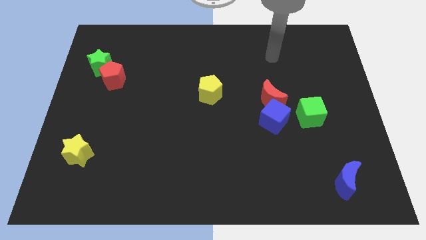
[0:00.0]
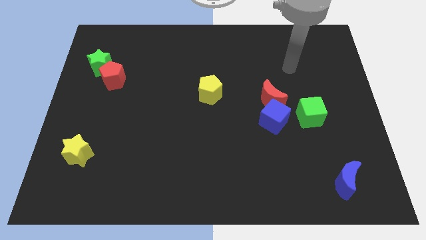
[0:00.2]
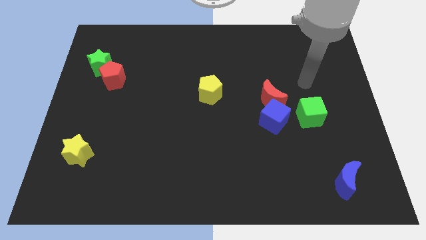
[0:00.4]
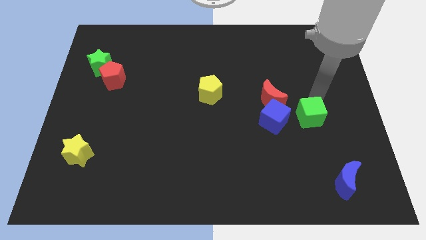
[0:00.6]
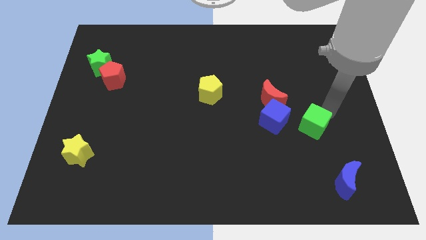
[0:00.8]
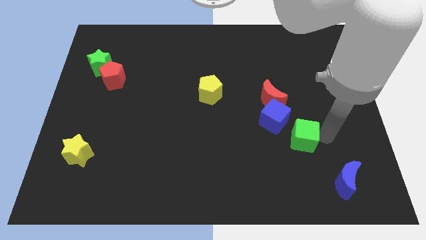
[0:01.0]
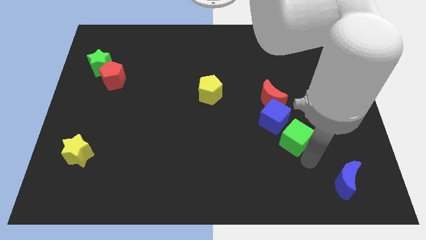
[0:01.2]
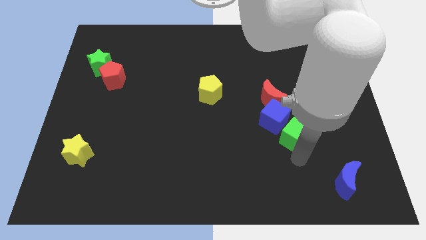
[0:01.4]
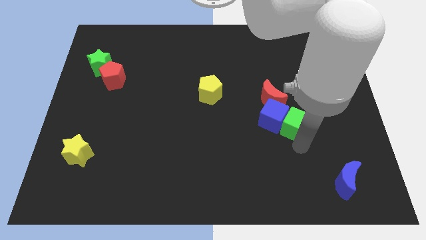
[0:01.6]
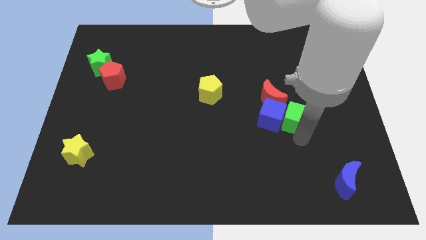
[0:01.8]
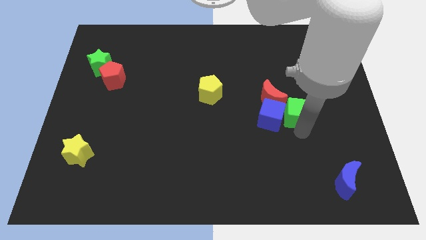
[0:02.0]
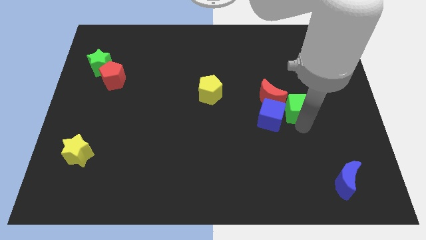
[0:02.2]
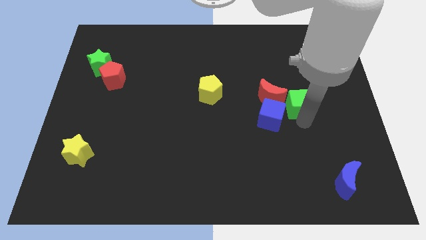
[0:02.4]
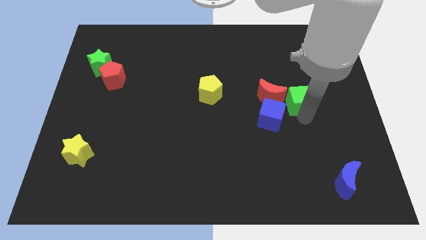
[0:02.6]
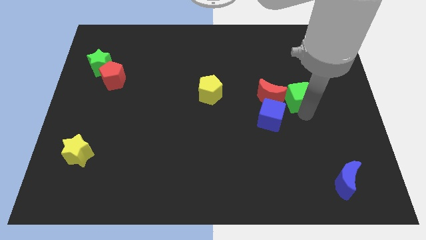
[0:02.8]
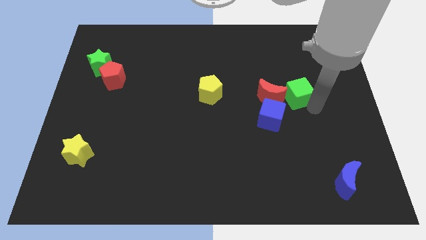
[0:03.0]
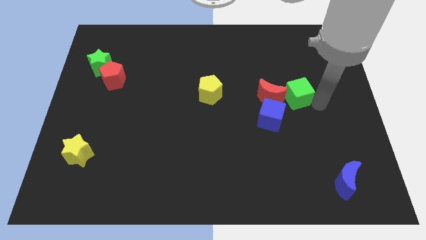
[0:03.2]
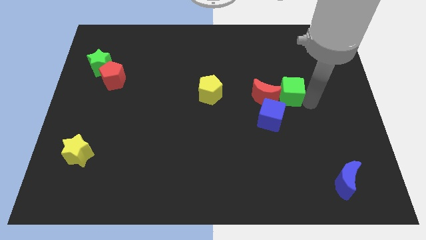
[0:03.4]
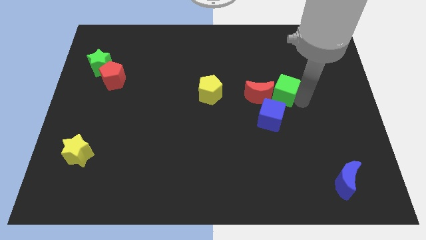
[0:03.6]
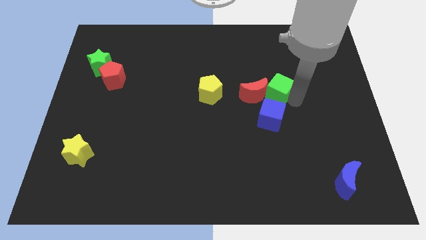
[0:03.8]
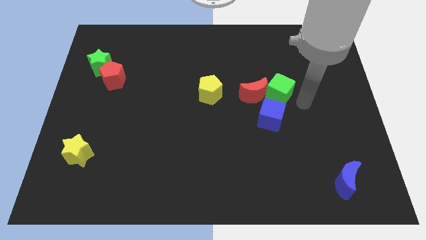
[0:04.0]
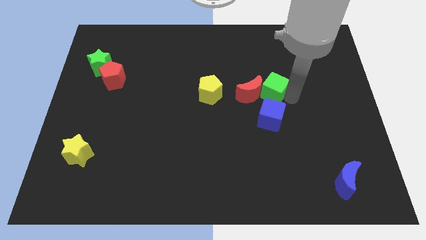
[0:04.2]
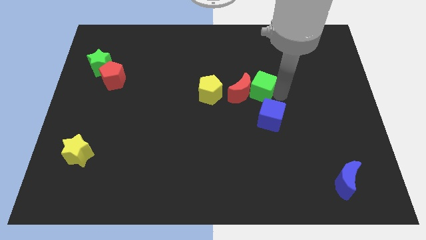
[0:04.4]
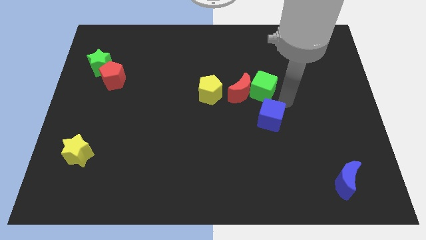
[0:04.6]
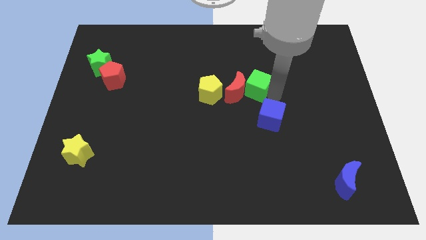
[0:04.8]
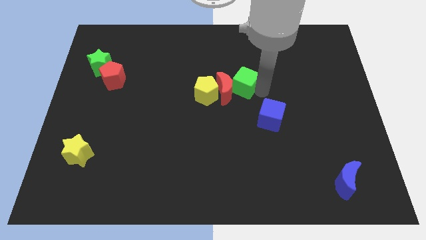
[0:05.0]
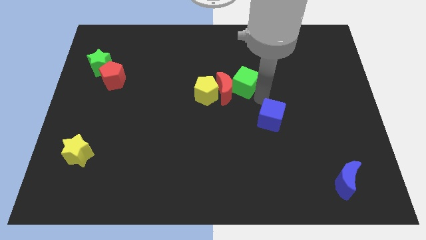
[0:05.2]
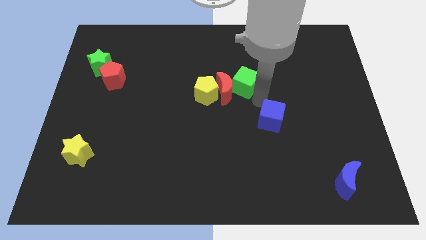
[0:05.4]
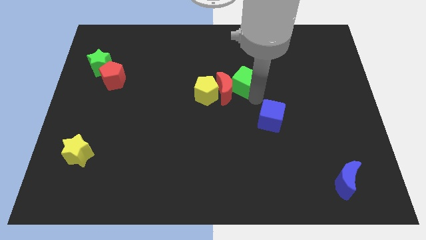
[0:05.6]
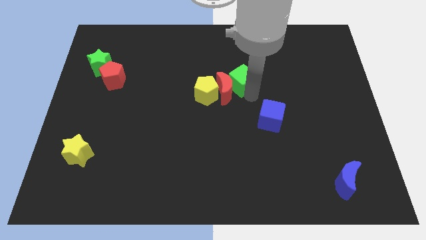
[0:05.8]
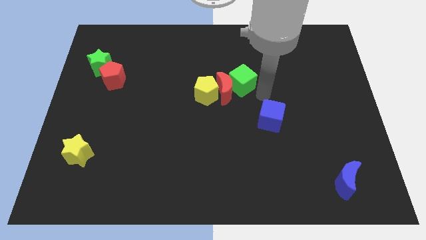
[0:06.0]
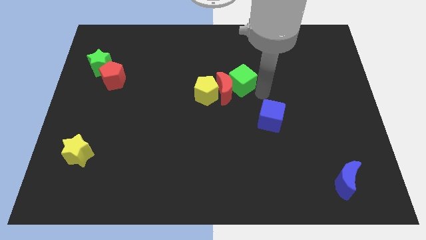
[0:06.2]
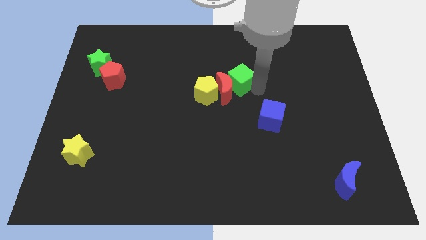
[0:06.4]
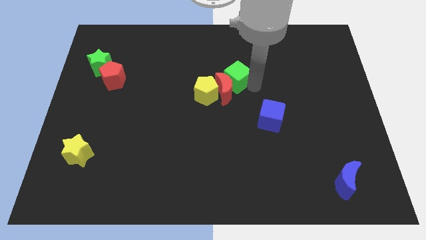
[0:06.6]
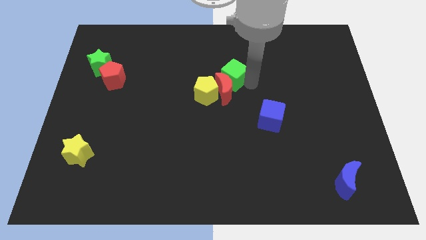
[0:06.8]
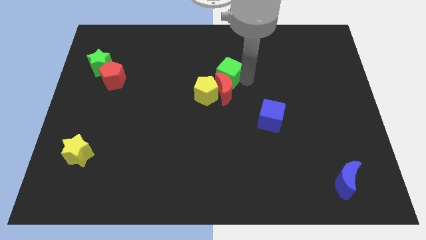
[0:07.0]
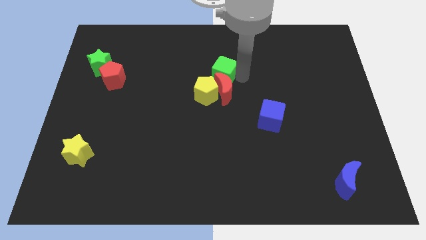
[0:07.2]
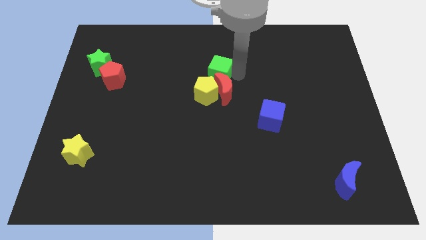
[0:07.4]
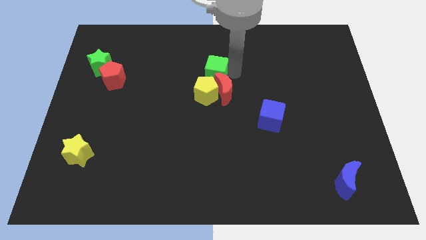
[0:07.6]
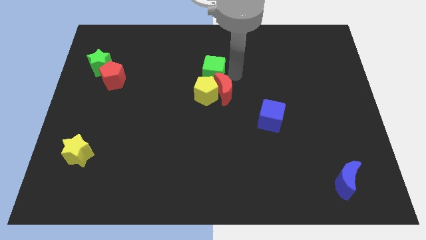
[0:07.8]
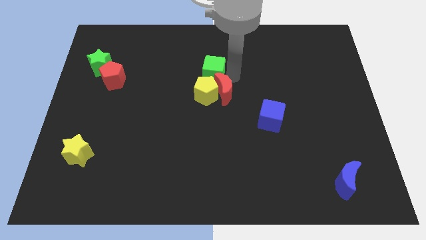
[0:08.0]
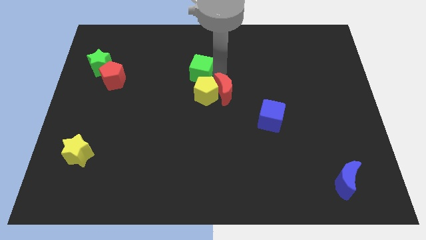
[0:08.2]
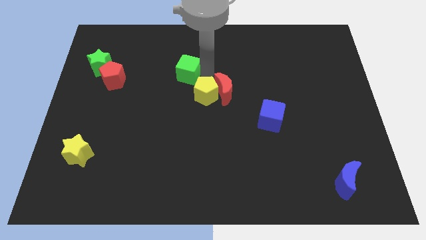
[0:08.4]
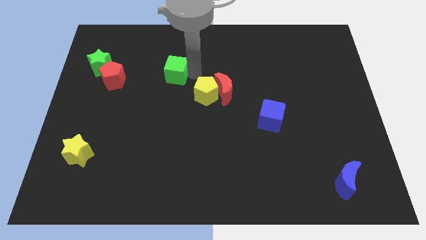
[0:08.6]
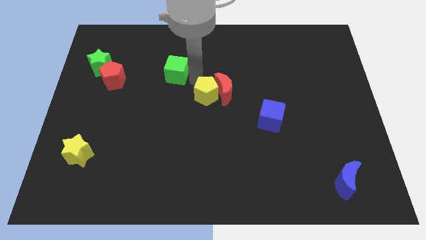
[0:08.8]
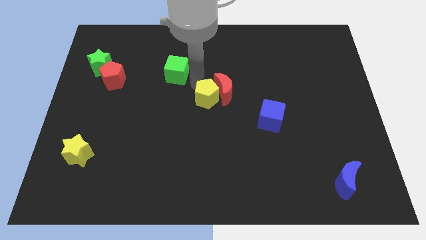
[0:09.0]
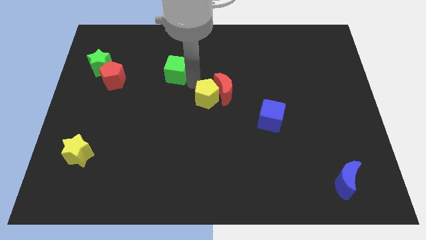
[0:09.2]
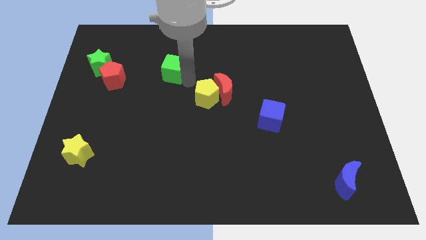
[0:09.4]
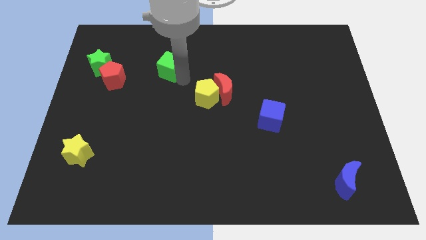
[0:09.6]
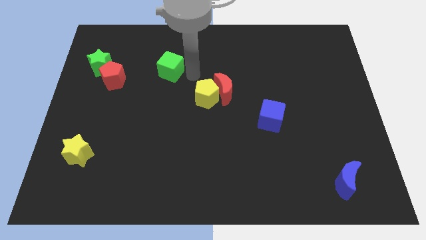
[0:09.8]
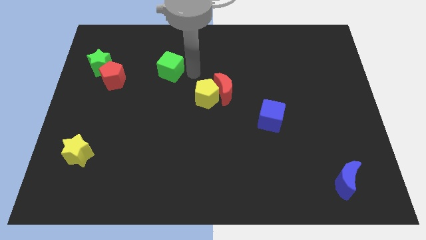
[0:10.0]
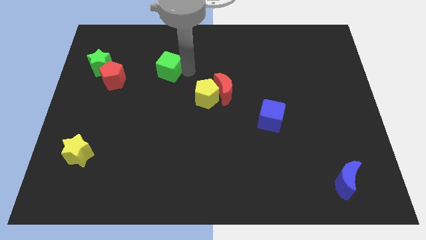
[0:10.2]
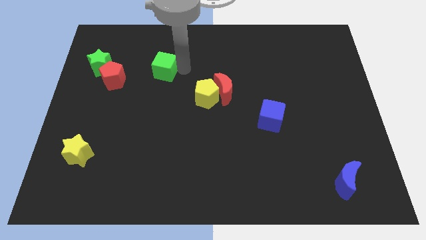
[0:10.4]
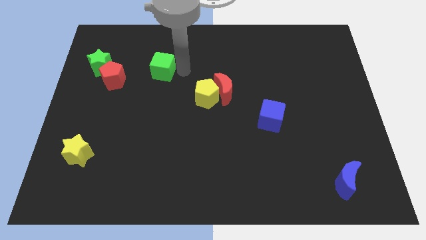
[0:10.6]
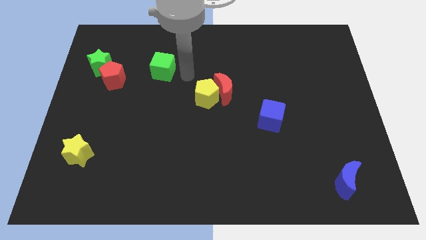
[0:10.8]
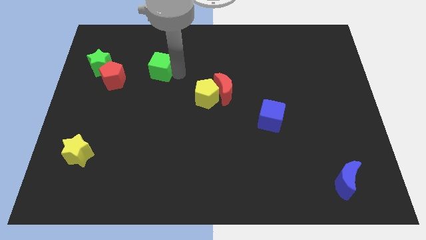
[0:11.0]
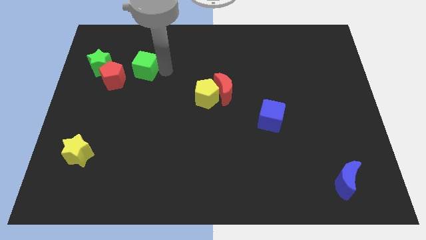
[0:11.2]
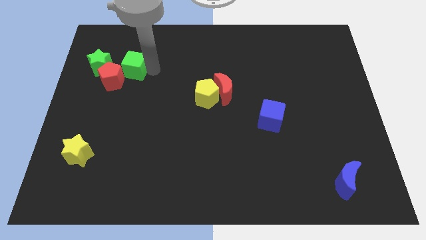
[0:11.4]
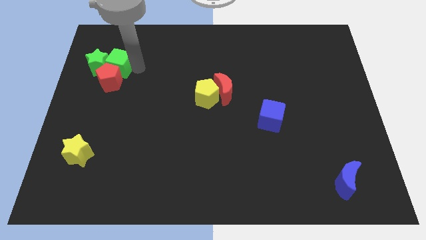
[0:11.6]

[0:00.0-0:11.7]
move the green cube close to the green star

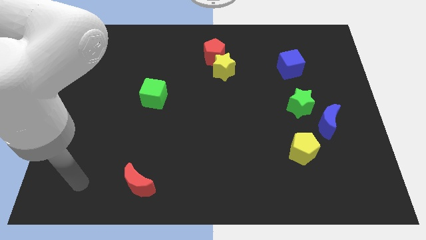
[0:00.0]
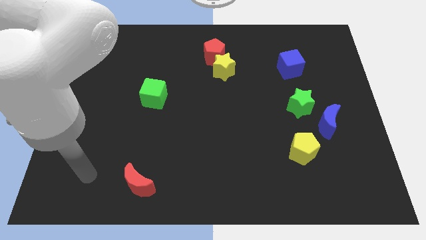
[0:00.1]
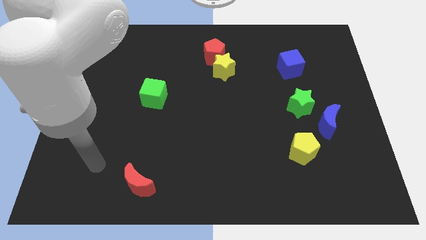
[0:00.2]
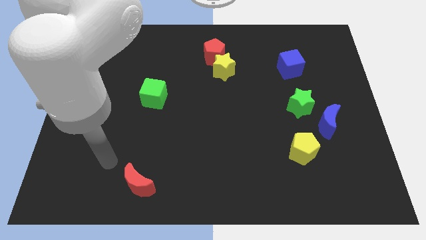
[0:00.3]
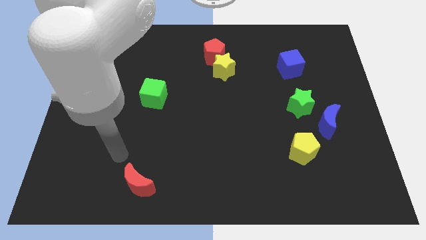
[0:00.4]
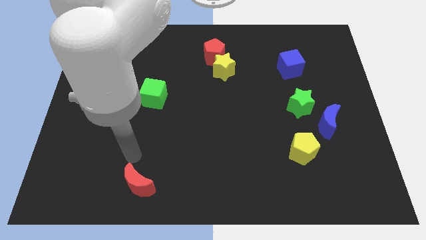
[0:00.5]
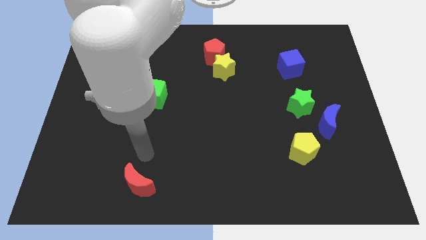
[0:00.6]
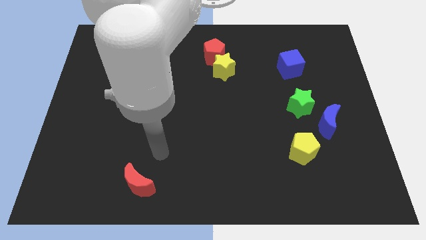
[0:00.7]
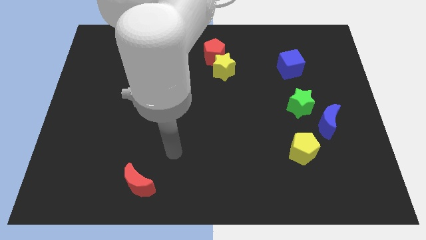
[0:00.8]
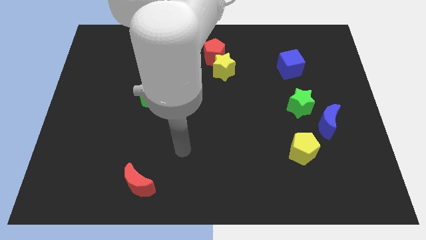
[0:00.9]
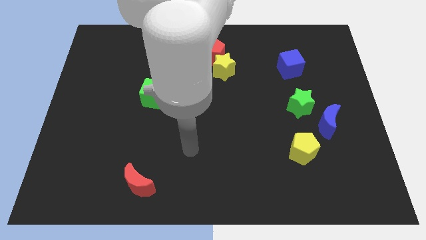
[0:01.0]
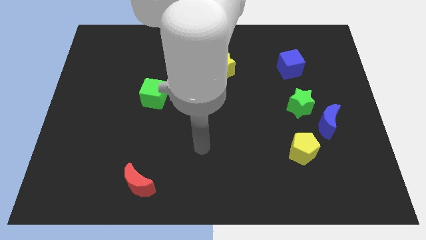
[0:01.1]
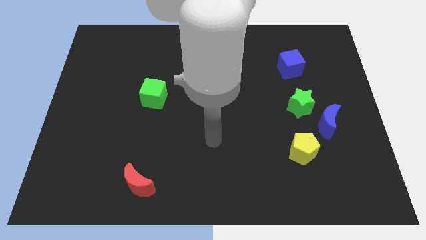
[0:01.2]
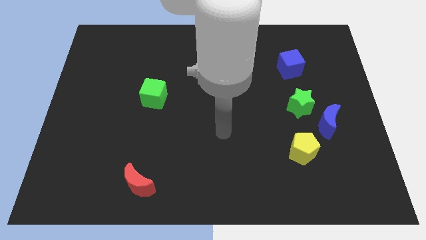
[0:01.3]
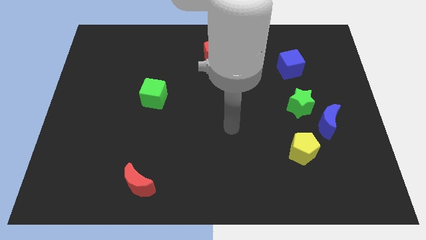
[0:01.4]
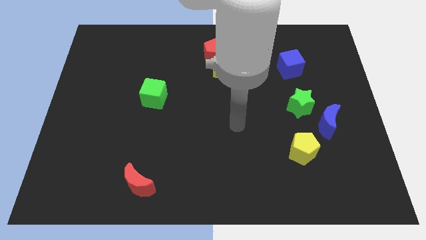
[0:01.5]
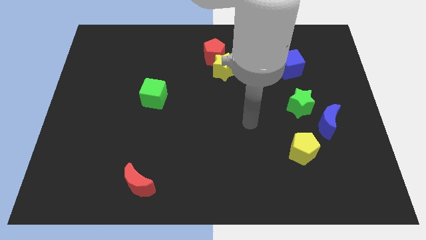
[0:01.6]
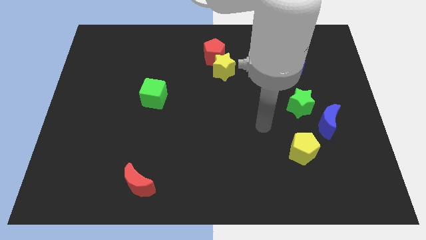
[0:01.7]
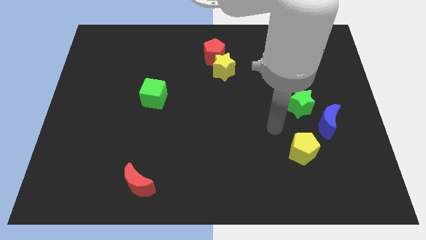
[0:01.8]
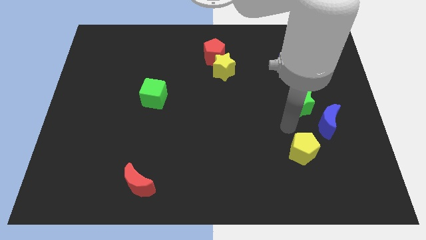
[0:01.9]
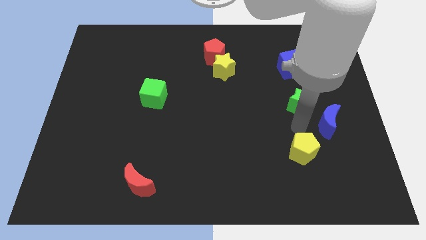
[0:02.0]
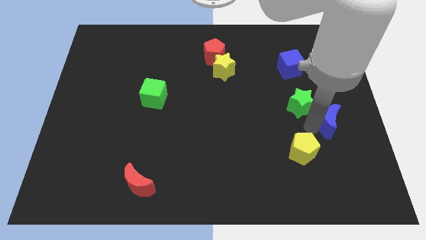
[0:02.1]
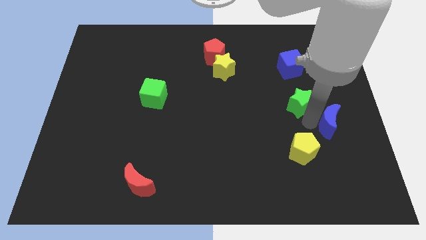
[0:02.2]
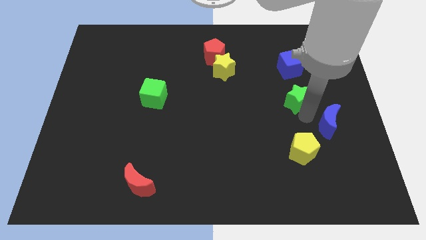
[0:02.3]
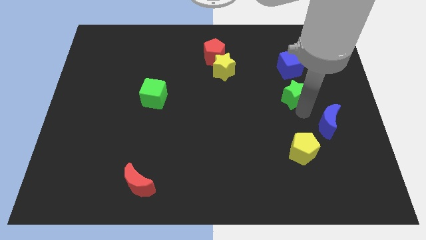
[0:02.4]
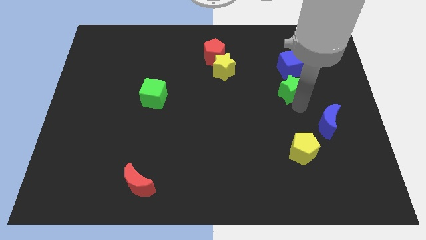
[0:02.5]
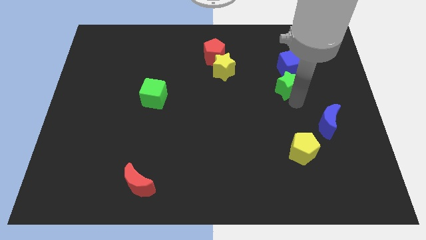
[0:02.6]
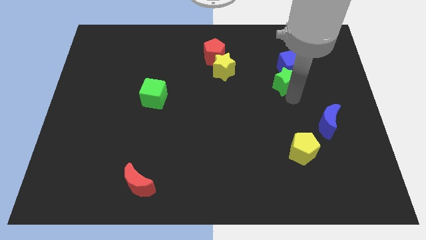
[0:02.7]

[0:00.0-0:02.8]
move the green star next to the blue cube
